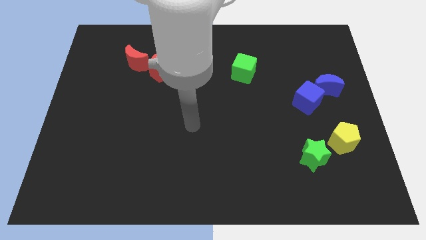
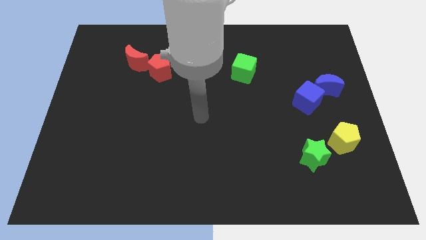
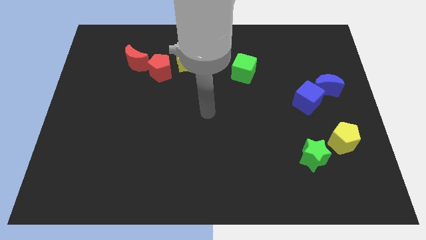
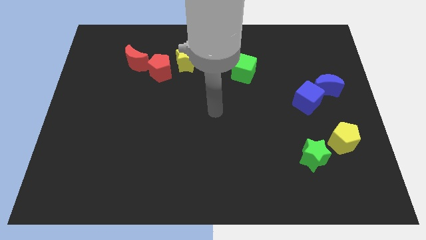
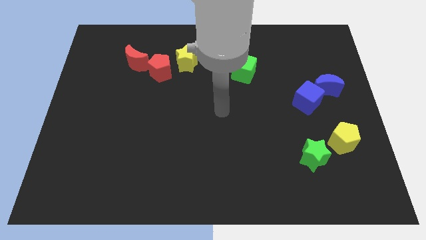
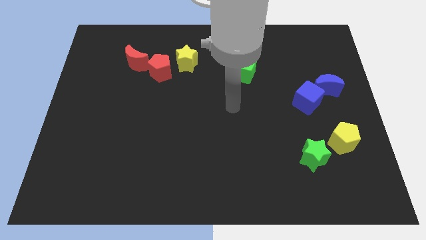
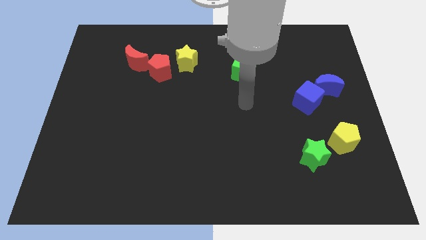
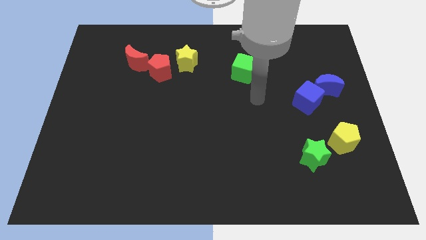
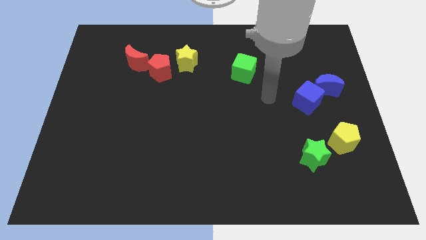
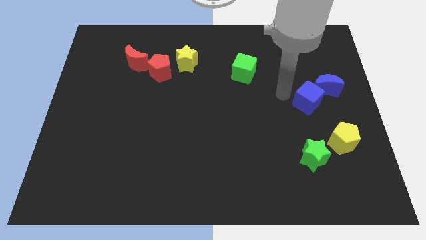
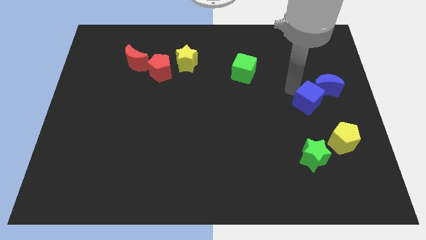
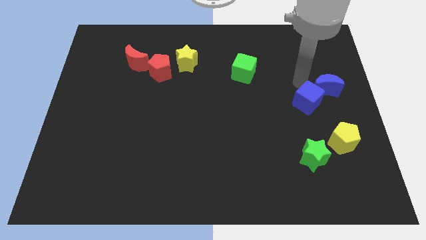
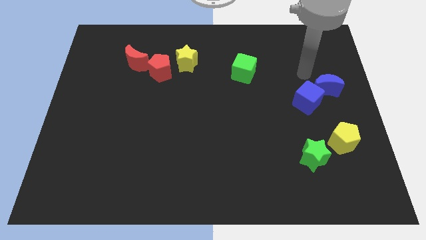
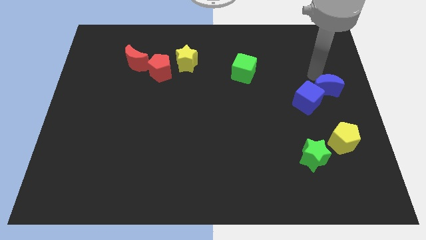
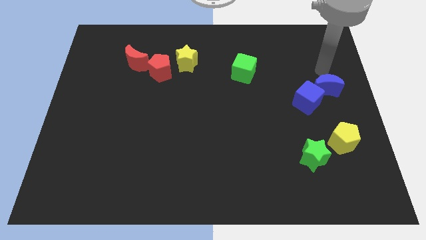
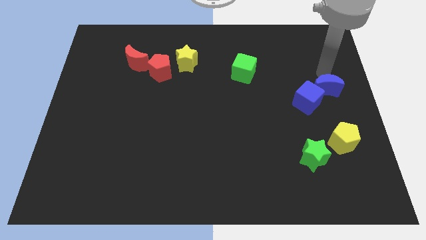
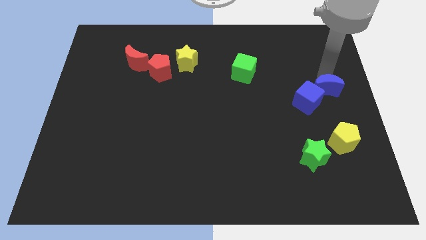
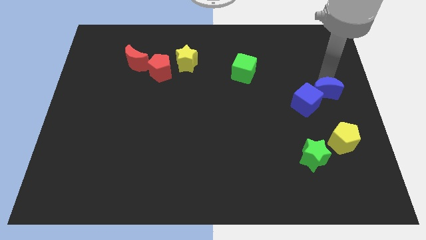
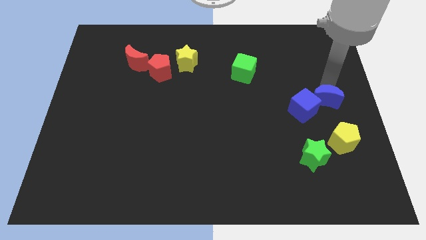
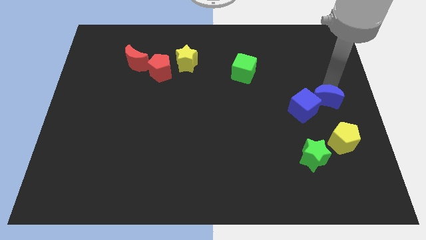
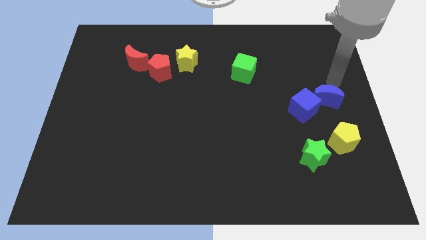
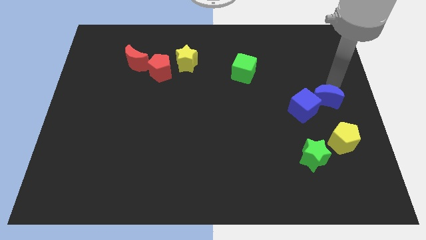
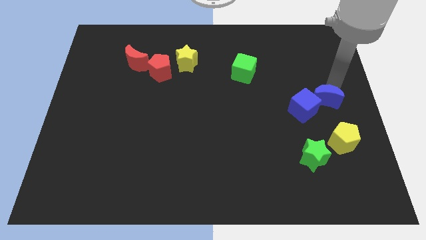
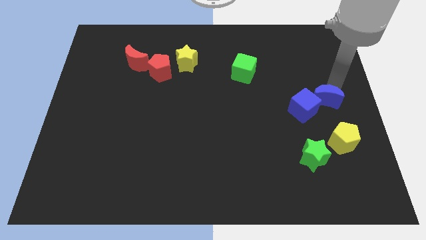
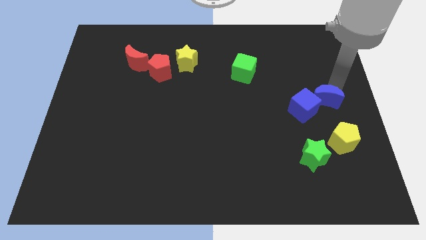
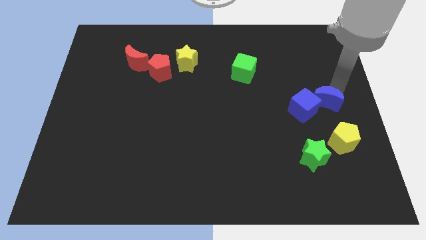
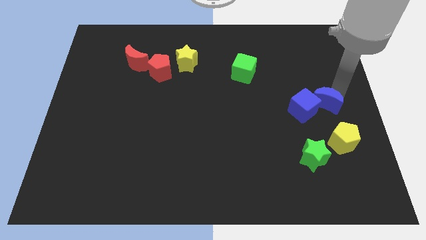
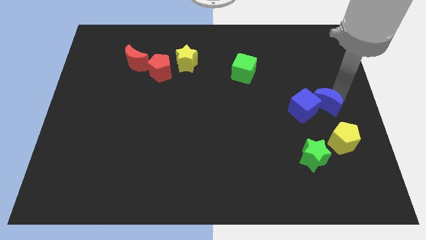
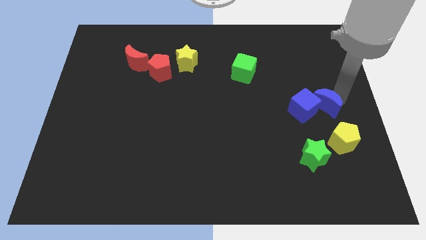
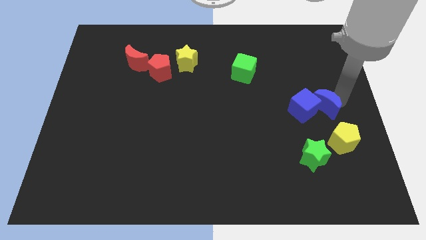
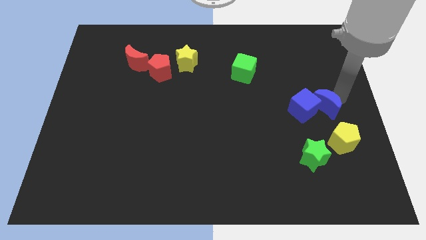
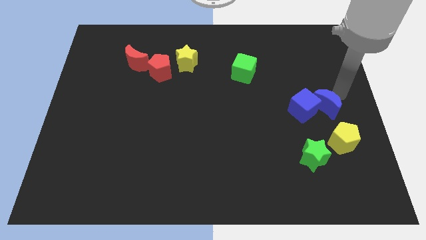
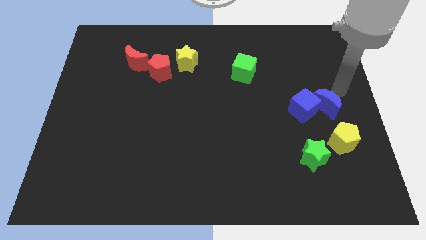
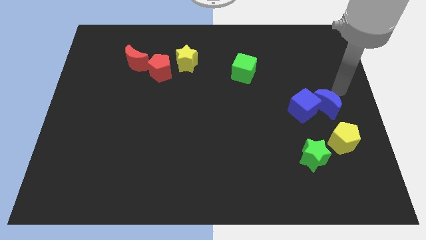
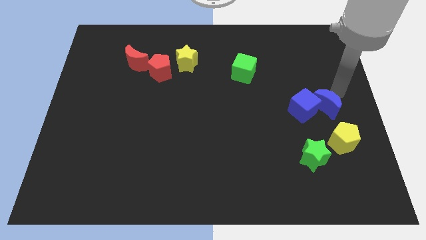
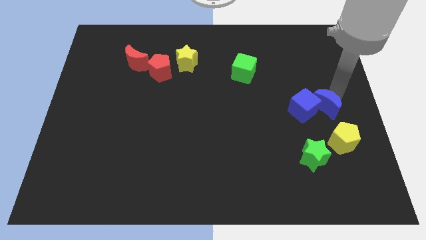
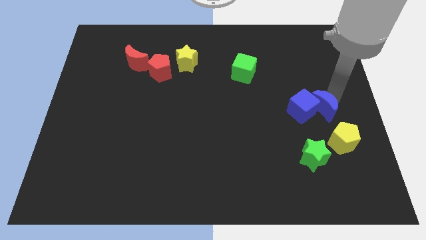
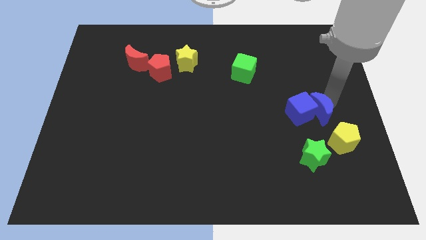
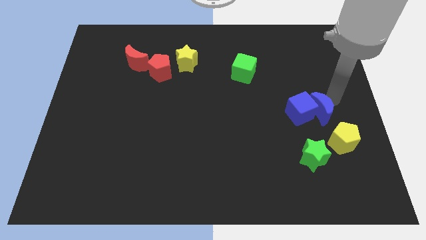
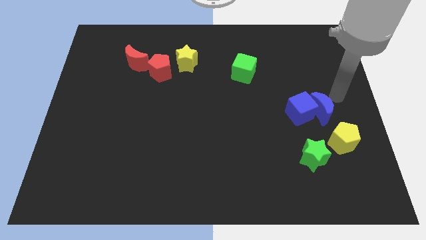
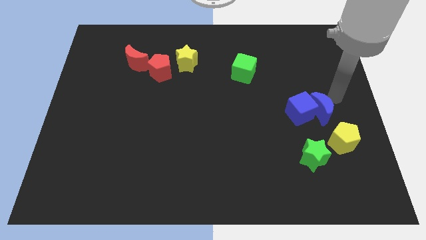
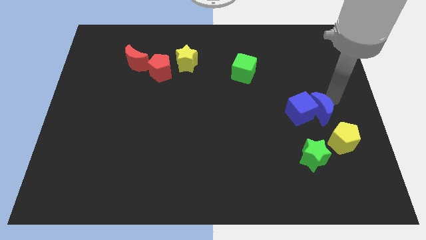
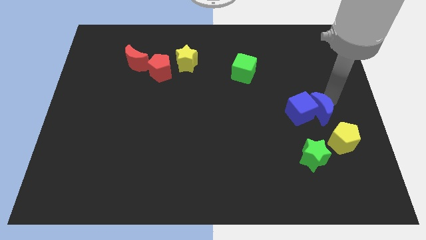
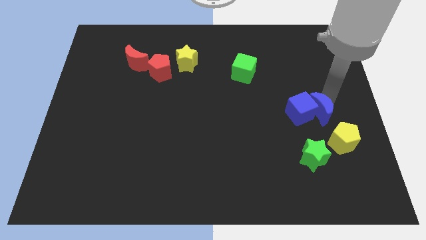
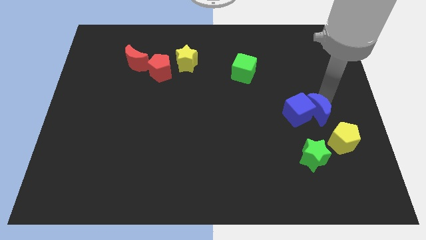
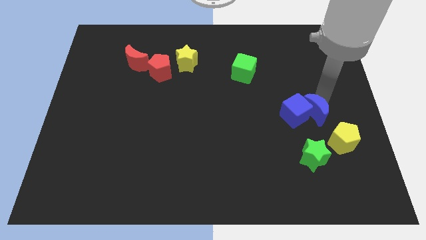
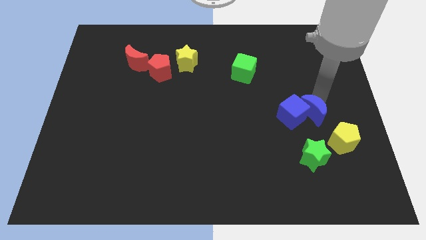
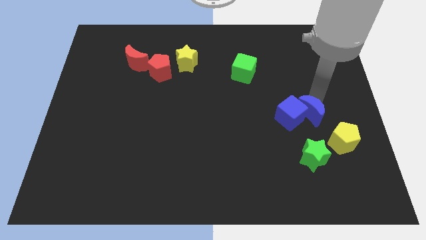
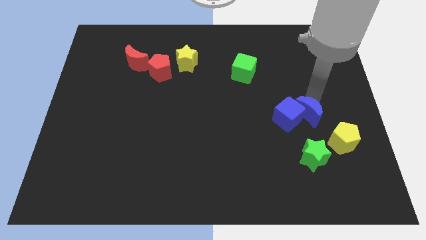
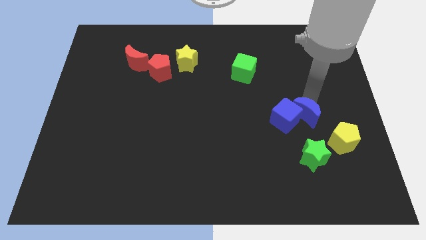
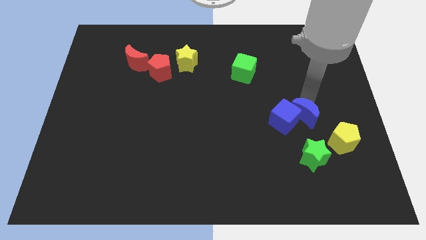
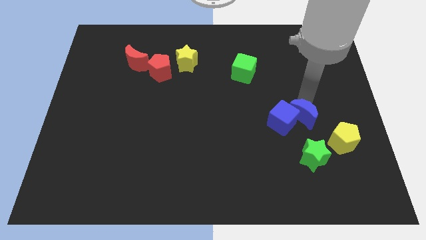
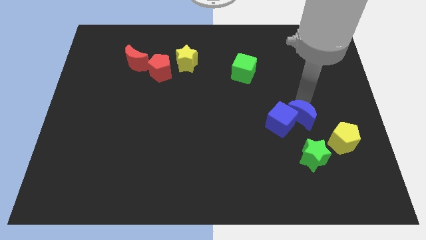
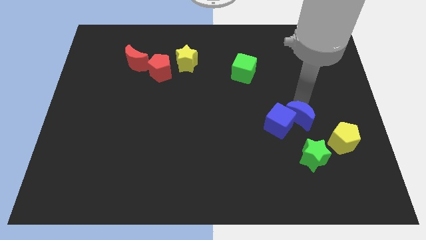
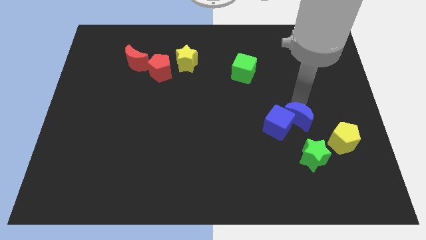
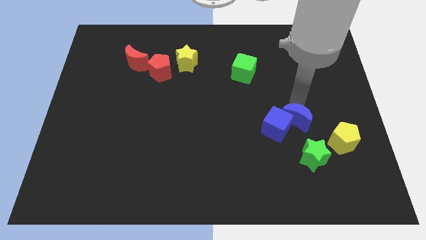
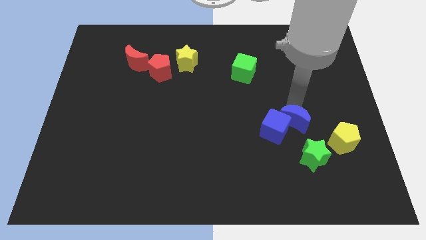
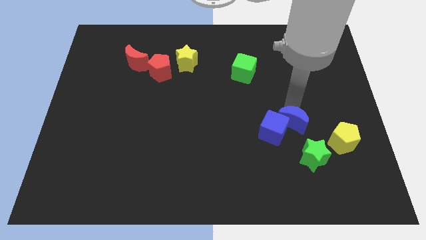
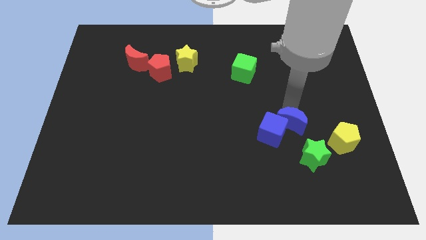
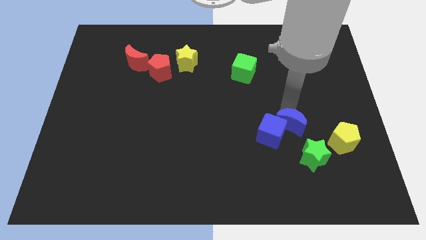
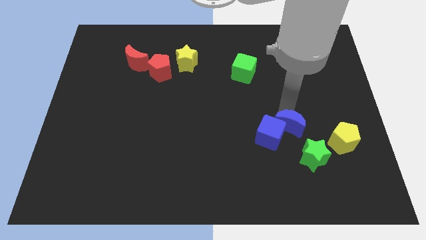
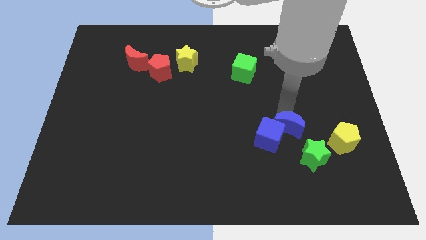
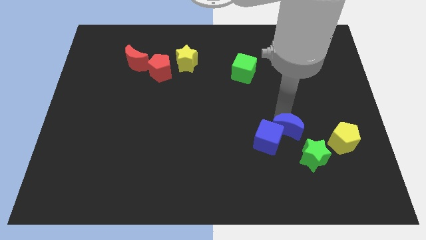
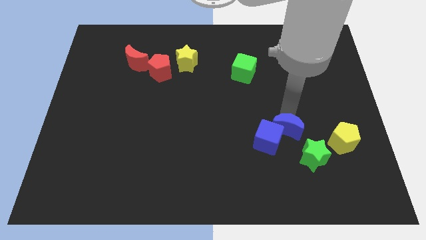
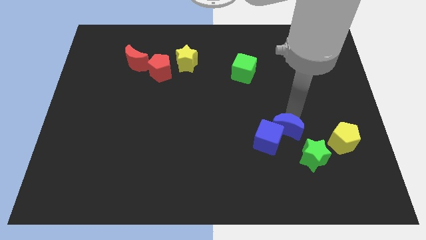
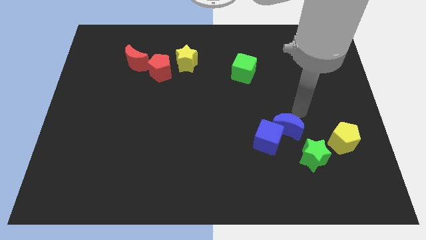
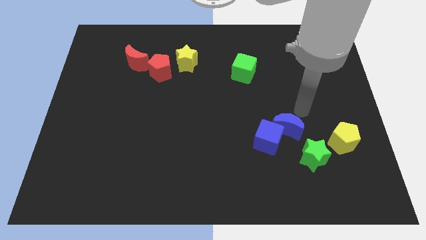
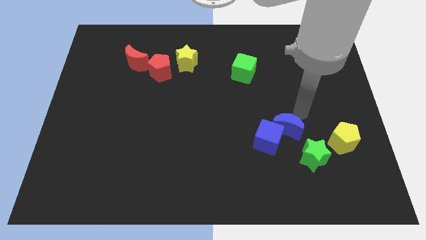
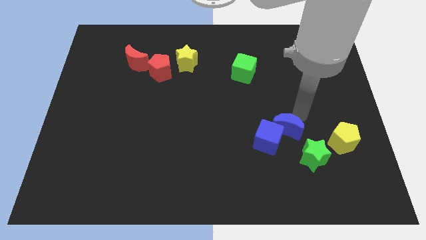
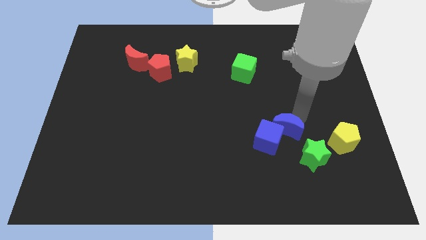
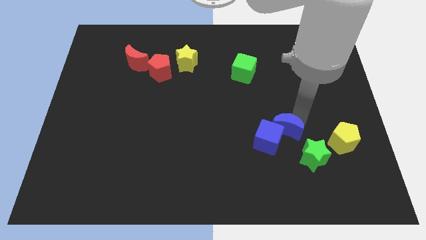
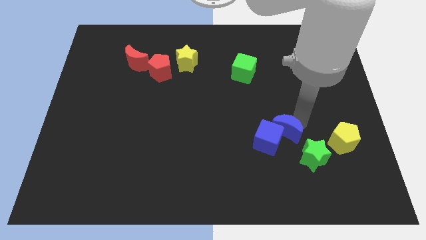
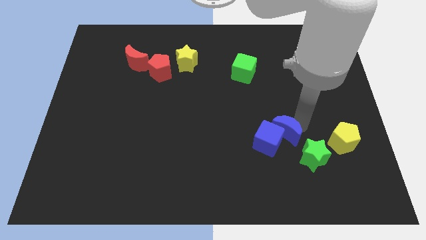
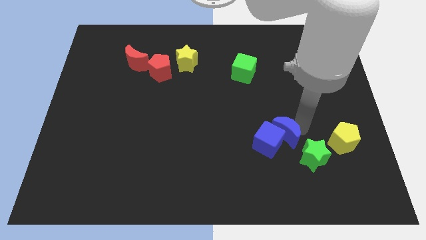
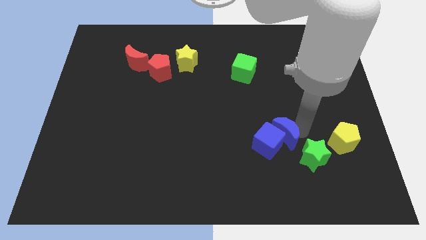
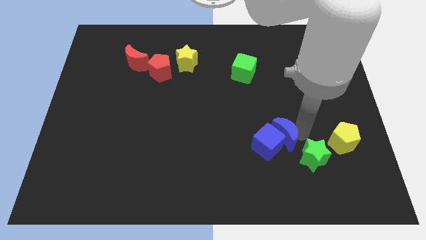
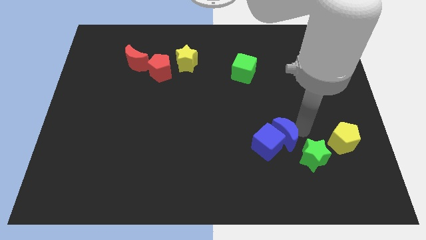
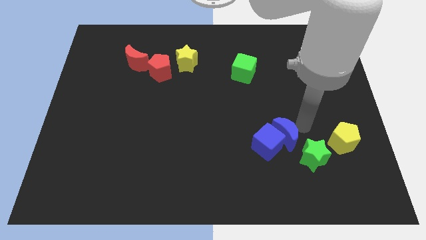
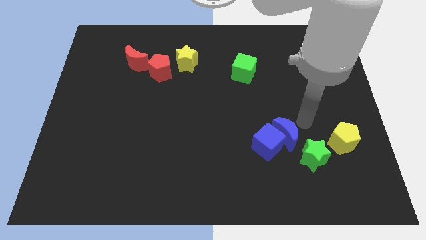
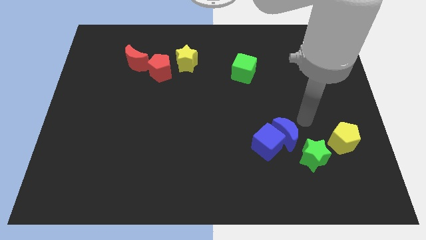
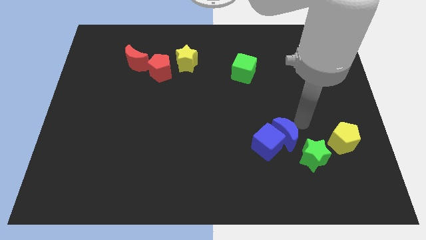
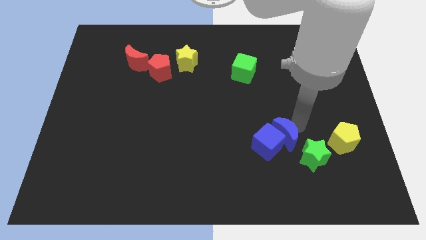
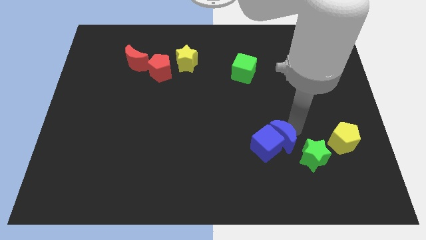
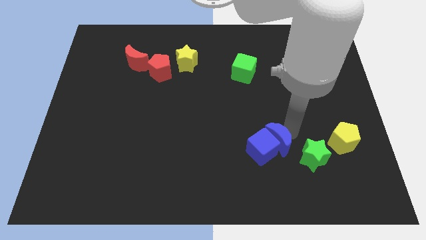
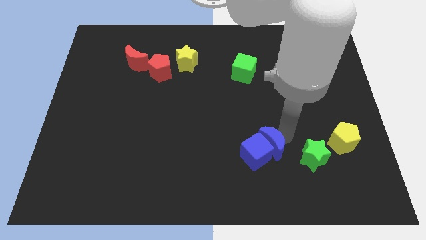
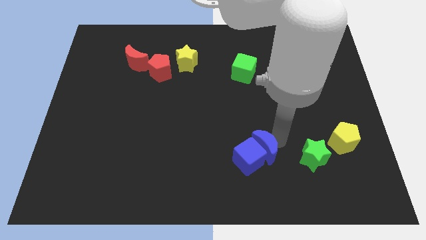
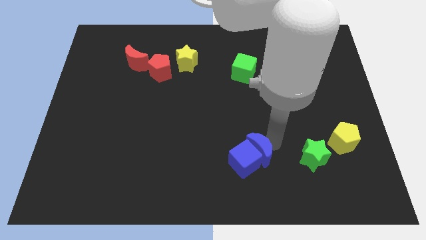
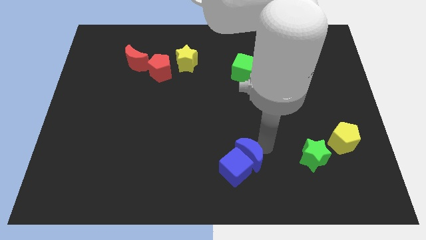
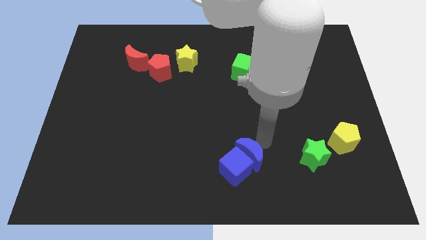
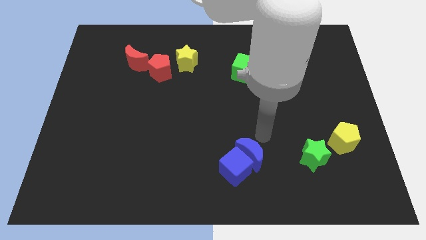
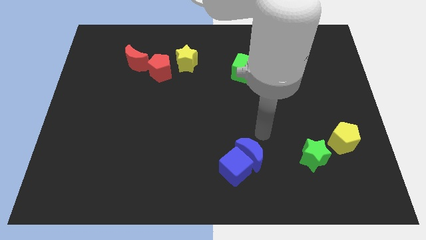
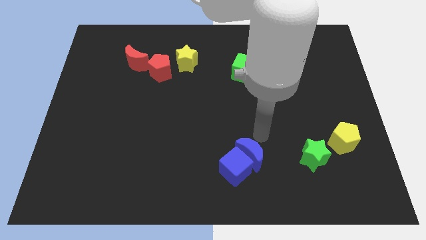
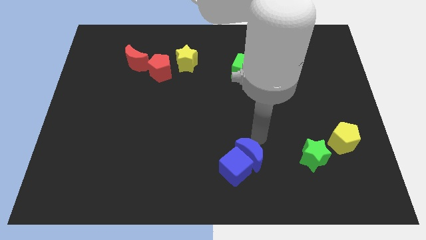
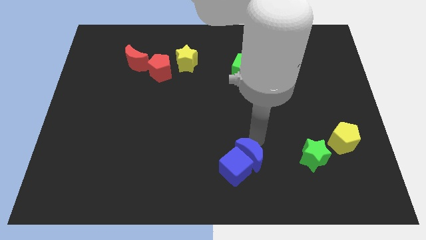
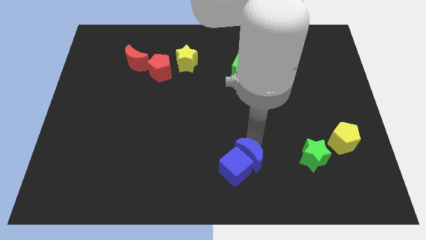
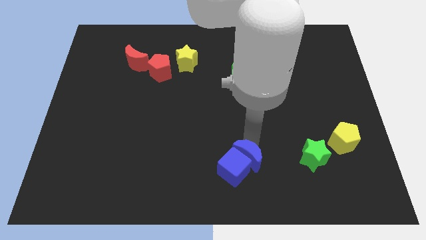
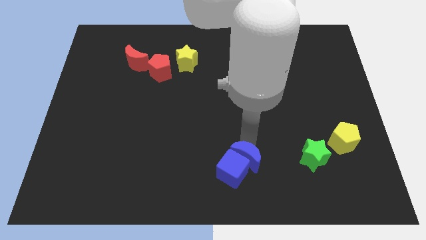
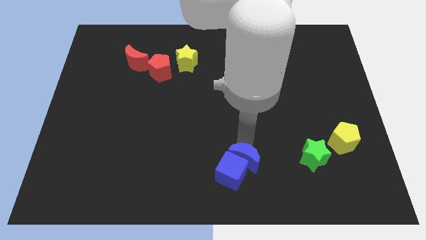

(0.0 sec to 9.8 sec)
move the blue moon to the bottom
